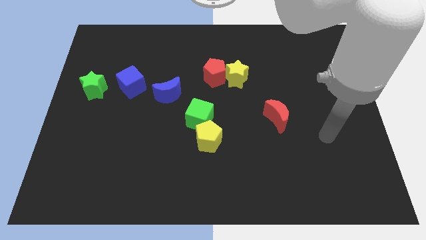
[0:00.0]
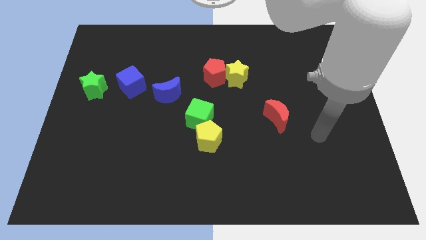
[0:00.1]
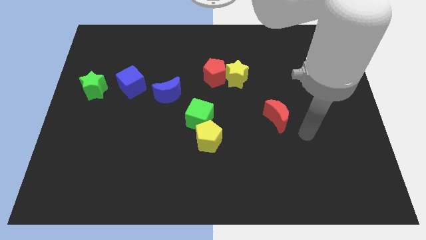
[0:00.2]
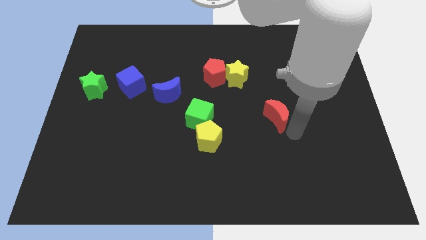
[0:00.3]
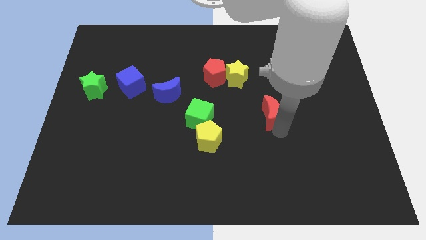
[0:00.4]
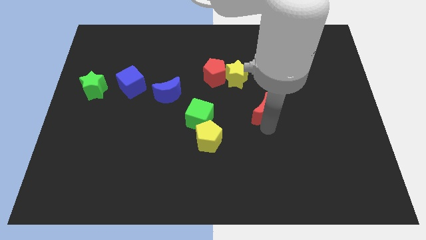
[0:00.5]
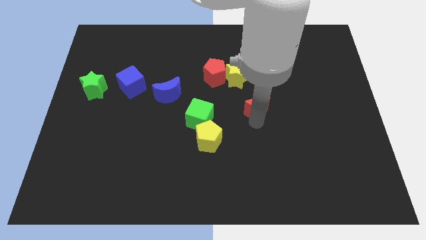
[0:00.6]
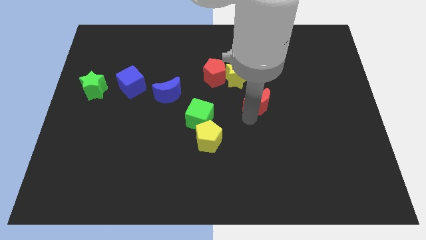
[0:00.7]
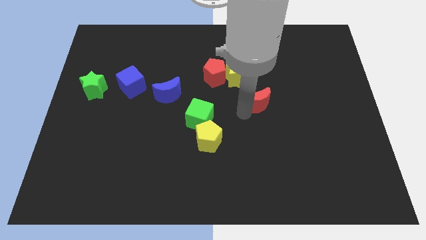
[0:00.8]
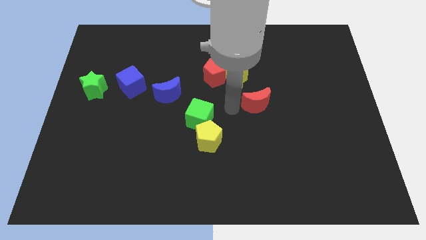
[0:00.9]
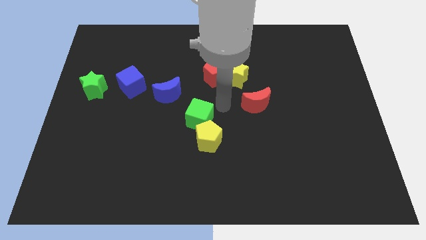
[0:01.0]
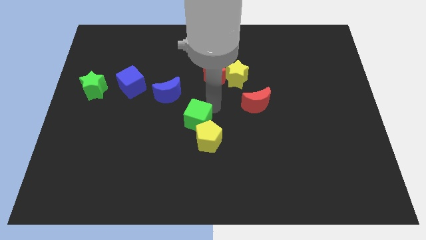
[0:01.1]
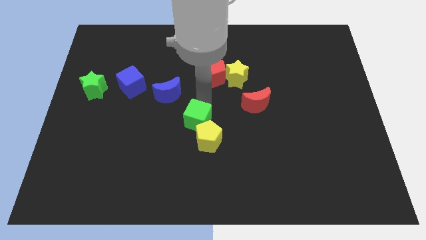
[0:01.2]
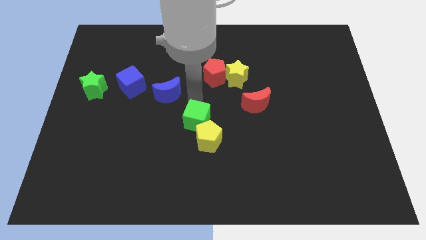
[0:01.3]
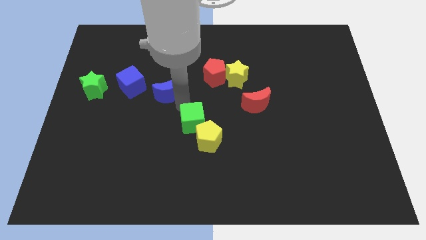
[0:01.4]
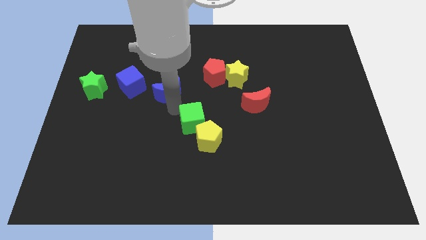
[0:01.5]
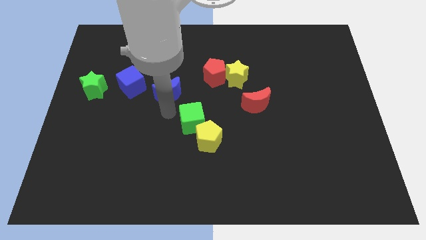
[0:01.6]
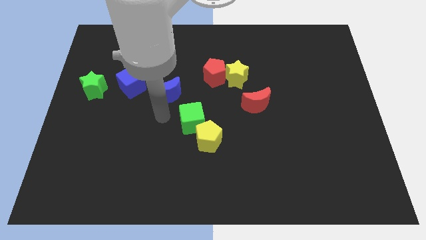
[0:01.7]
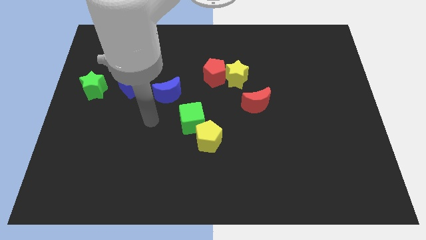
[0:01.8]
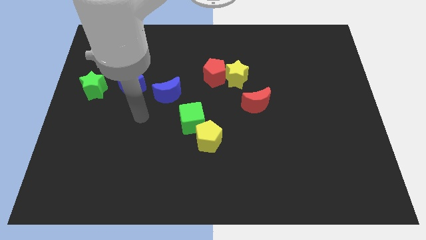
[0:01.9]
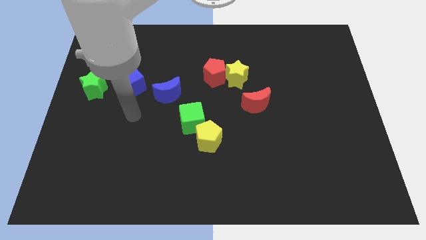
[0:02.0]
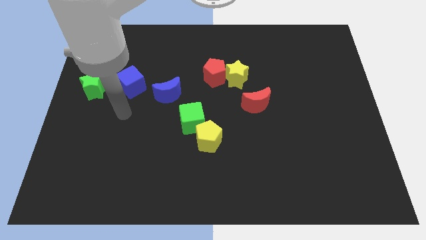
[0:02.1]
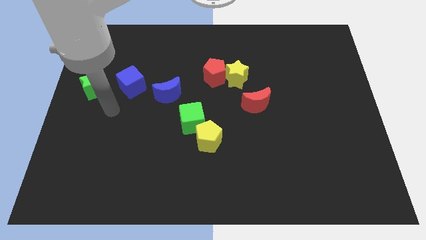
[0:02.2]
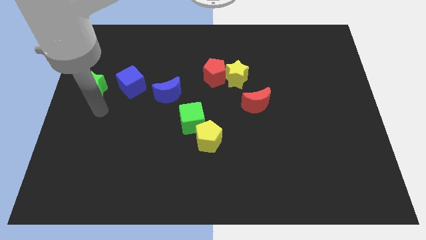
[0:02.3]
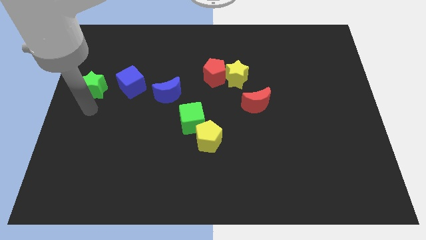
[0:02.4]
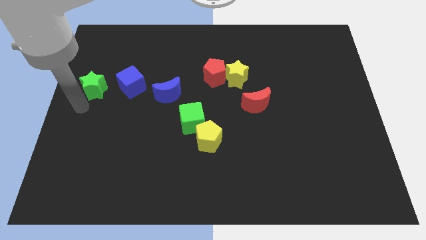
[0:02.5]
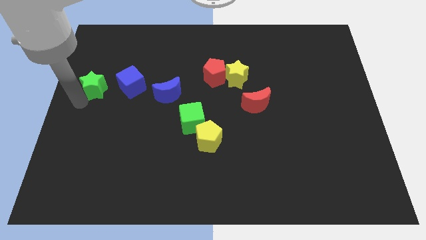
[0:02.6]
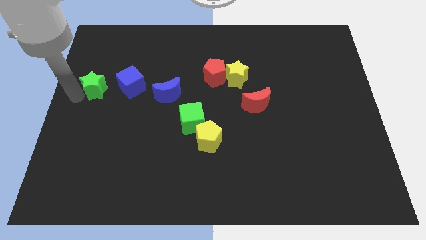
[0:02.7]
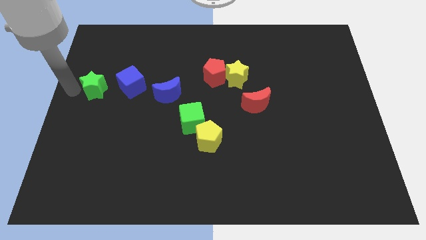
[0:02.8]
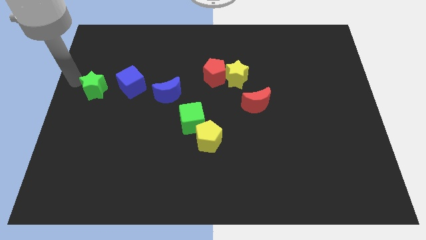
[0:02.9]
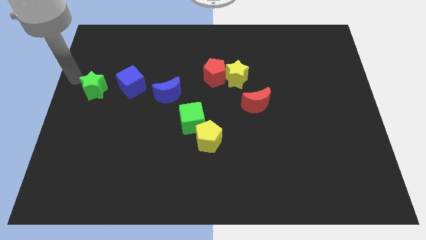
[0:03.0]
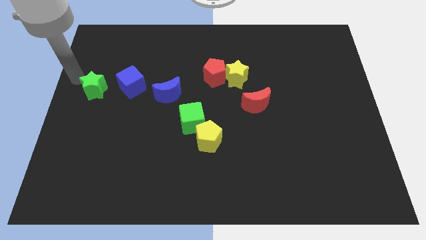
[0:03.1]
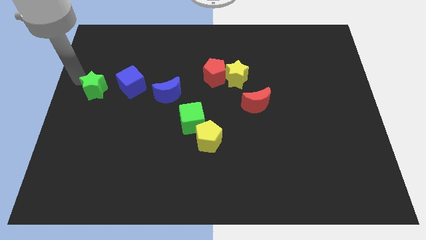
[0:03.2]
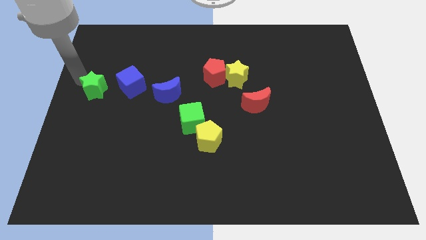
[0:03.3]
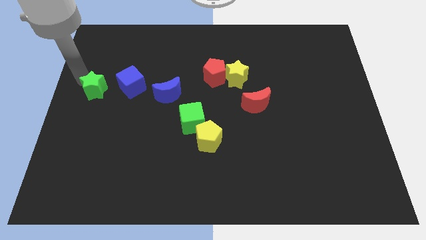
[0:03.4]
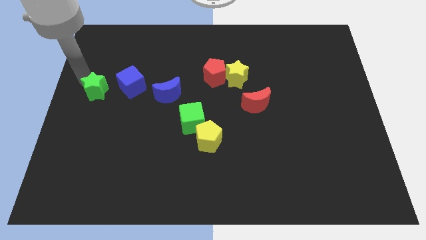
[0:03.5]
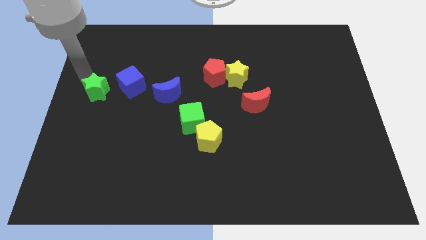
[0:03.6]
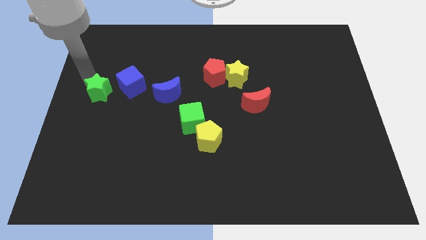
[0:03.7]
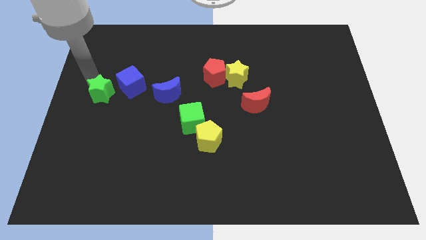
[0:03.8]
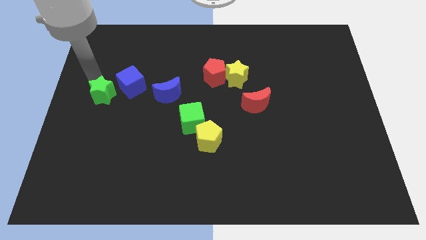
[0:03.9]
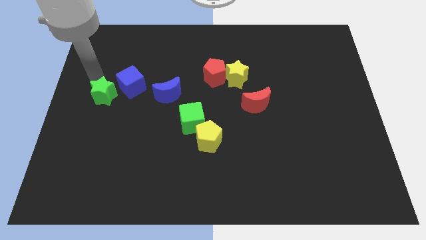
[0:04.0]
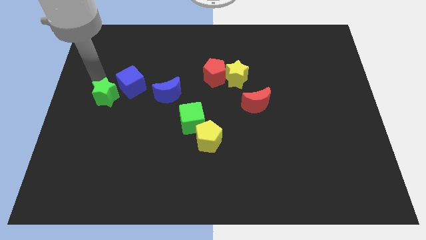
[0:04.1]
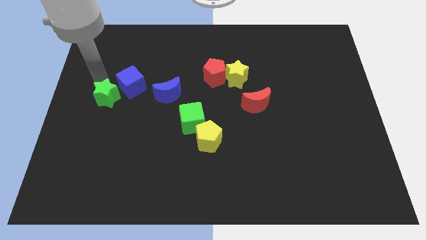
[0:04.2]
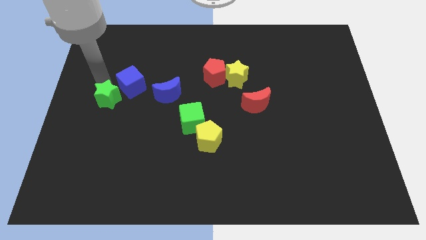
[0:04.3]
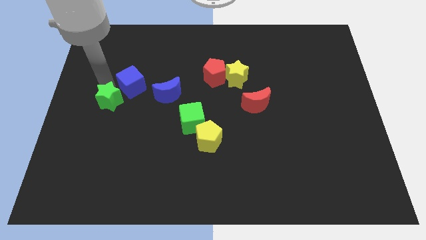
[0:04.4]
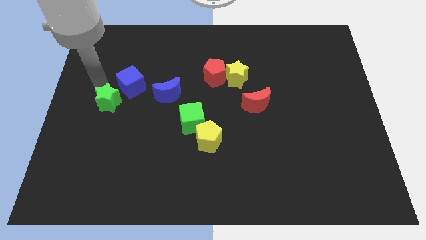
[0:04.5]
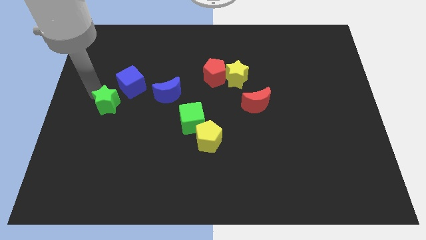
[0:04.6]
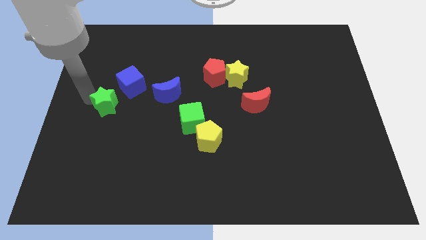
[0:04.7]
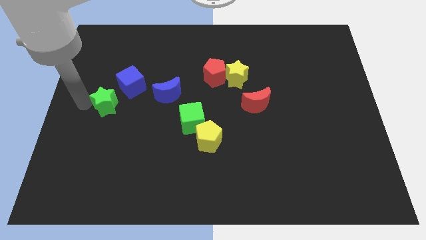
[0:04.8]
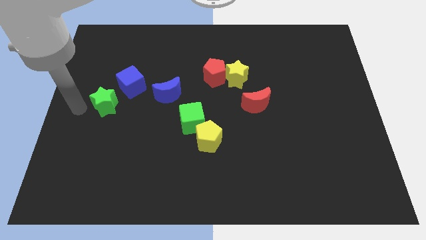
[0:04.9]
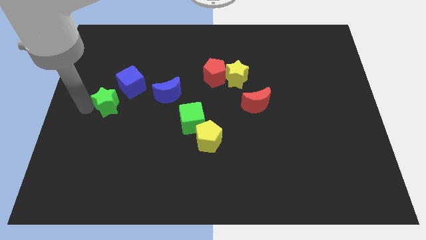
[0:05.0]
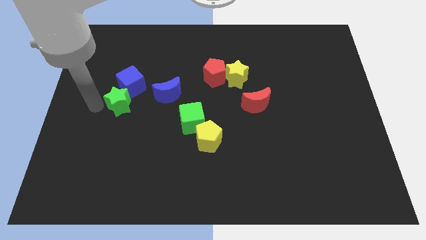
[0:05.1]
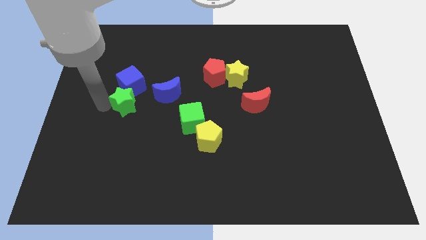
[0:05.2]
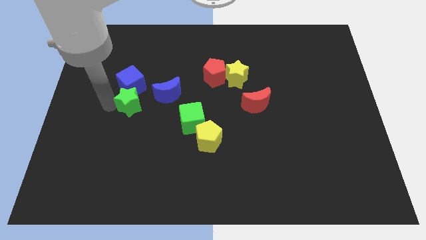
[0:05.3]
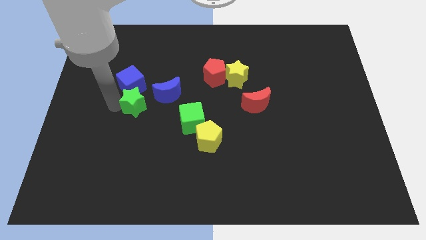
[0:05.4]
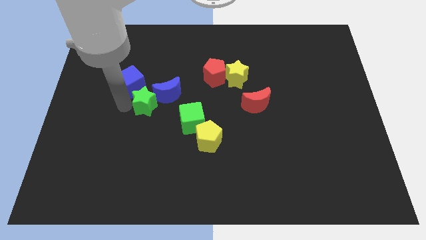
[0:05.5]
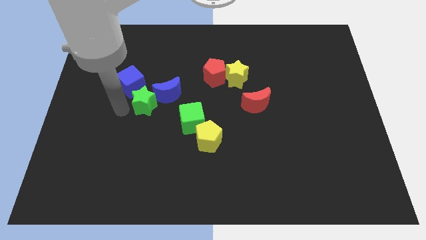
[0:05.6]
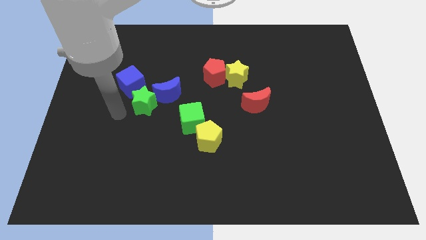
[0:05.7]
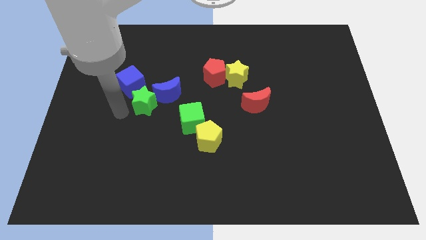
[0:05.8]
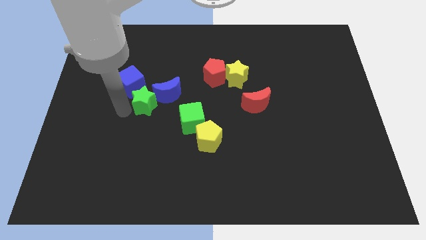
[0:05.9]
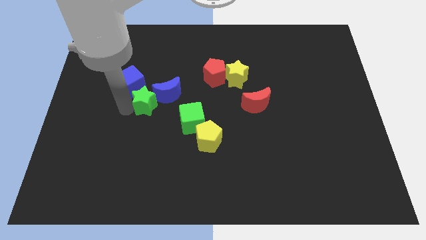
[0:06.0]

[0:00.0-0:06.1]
move the green star next to the blue moon

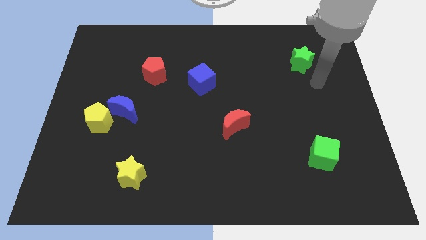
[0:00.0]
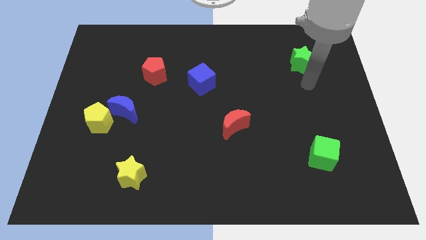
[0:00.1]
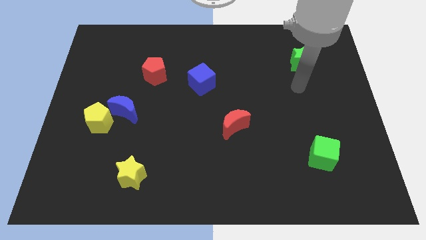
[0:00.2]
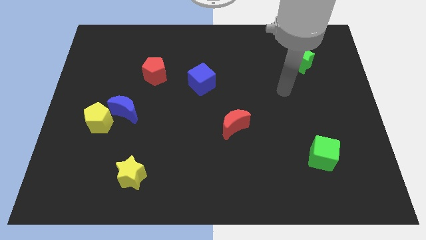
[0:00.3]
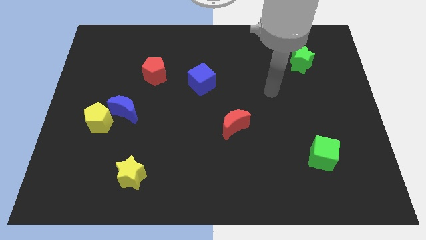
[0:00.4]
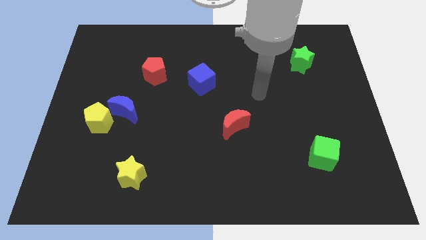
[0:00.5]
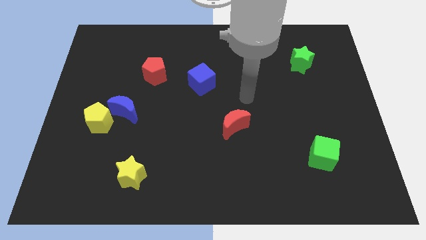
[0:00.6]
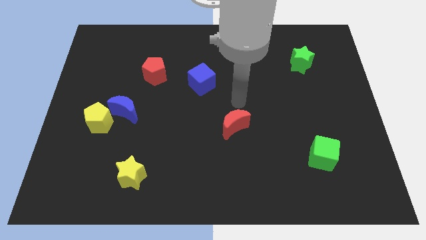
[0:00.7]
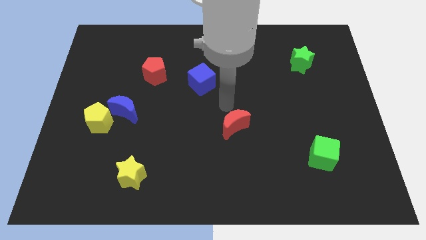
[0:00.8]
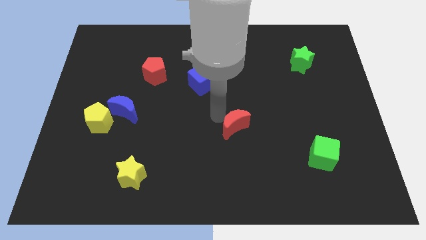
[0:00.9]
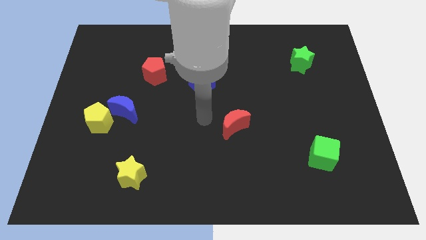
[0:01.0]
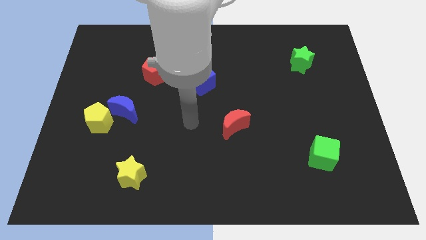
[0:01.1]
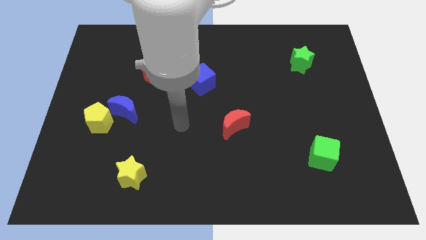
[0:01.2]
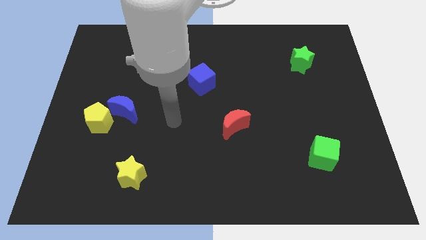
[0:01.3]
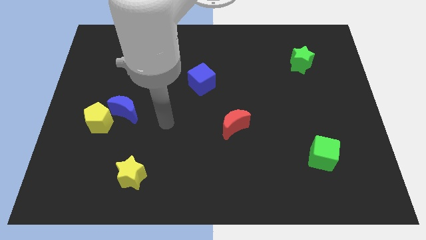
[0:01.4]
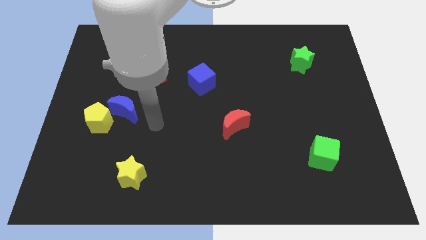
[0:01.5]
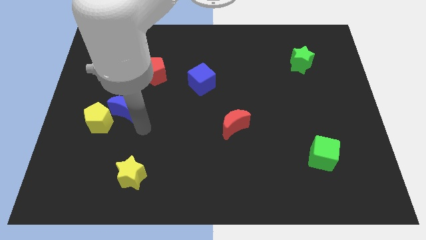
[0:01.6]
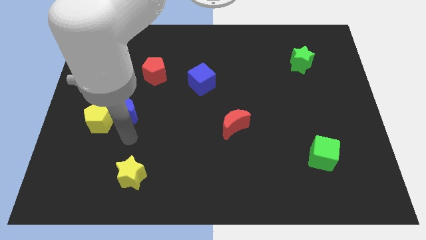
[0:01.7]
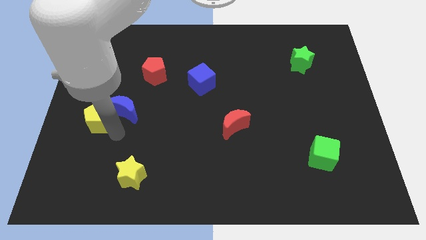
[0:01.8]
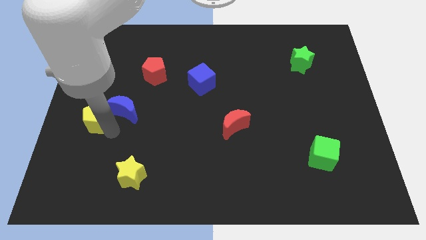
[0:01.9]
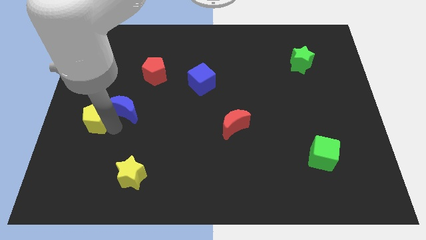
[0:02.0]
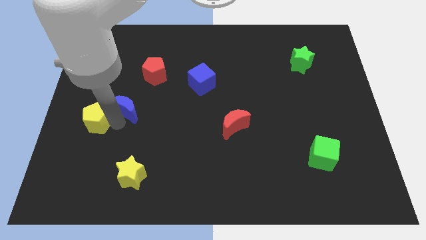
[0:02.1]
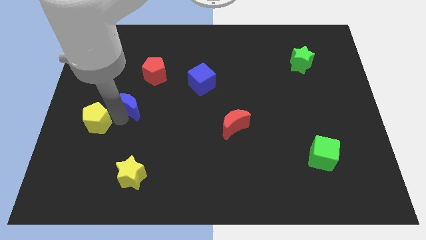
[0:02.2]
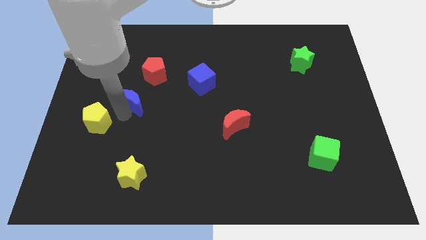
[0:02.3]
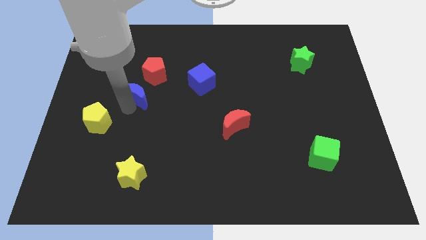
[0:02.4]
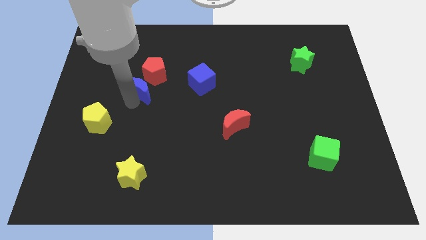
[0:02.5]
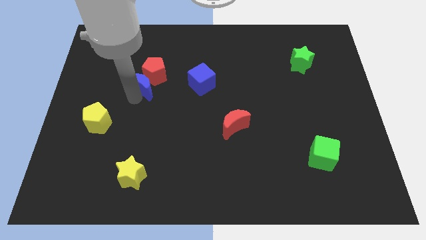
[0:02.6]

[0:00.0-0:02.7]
push the blue moon close to the red pentagon
